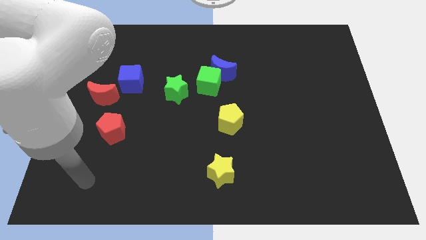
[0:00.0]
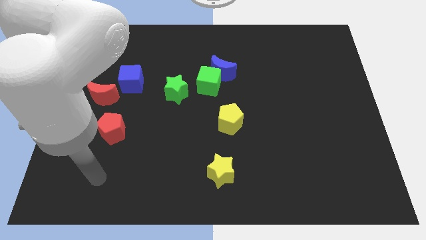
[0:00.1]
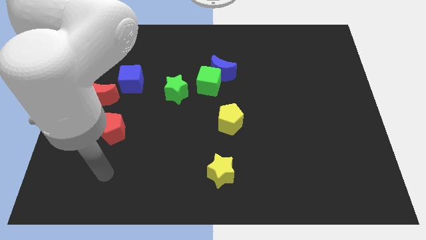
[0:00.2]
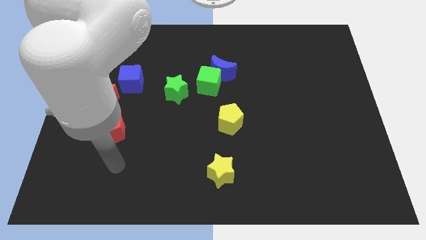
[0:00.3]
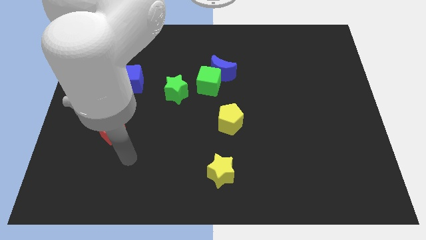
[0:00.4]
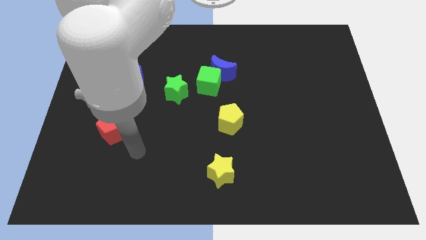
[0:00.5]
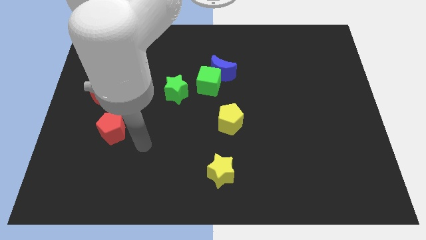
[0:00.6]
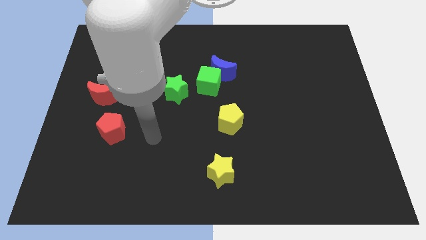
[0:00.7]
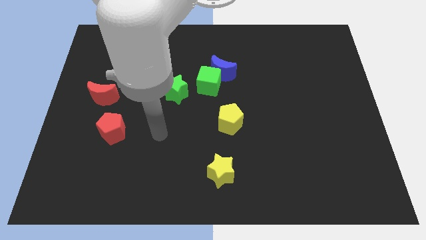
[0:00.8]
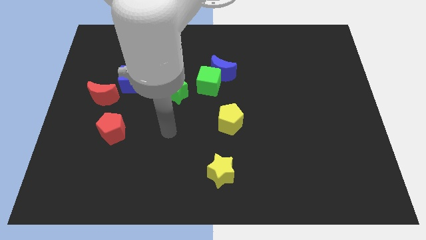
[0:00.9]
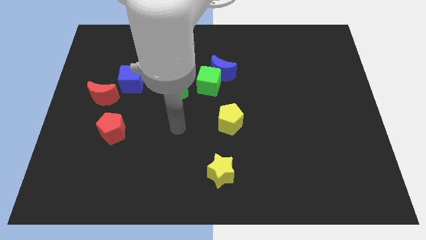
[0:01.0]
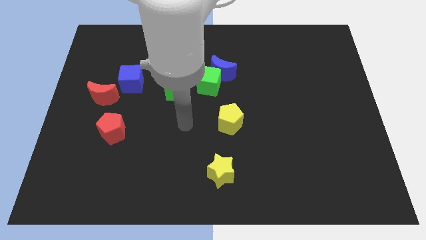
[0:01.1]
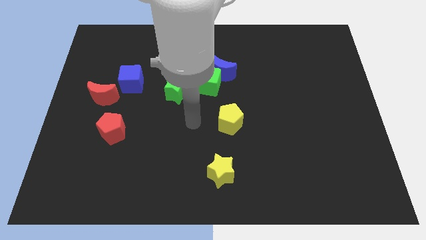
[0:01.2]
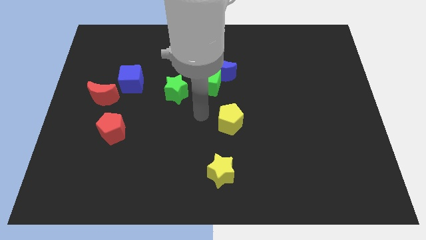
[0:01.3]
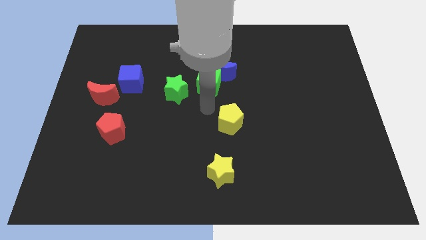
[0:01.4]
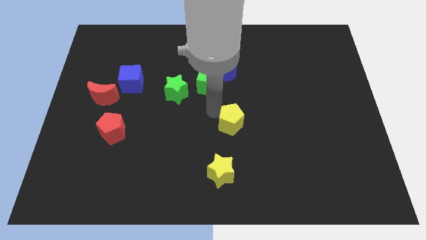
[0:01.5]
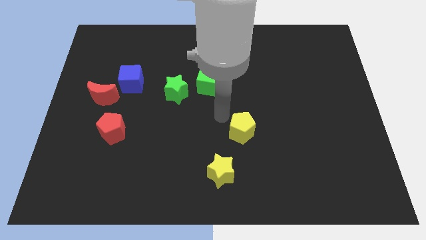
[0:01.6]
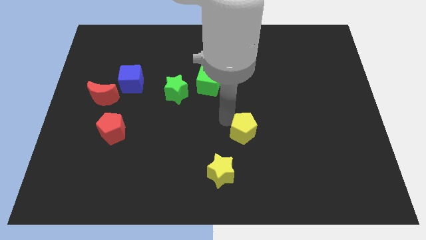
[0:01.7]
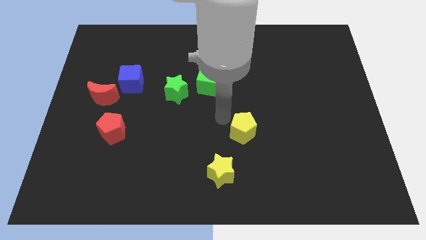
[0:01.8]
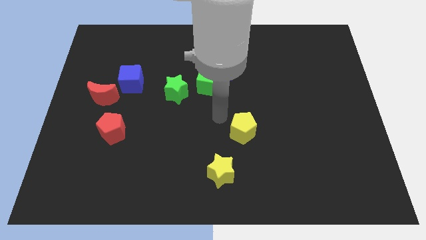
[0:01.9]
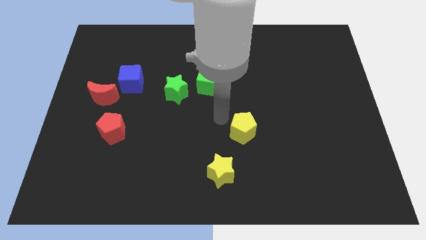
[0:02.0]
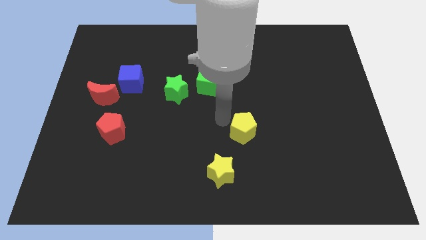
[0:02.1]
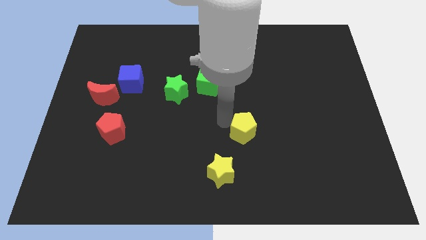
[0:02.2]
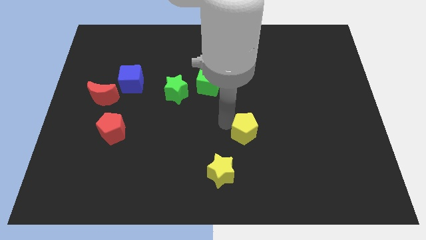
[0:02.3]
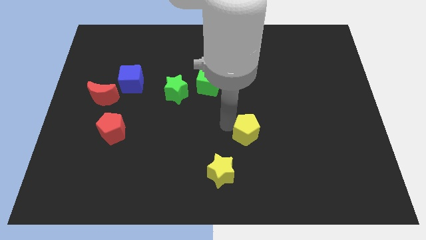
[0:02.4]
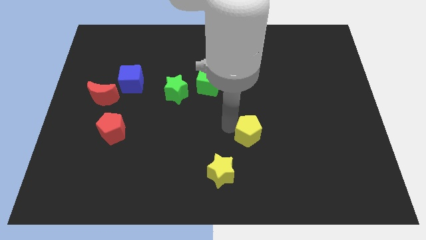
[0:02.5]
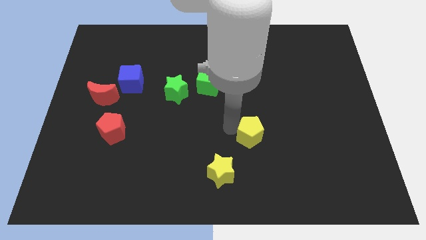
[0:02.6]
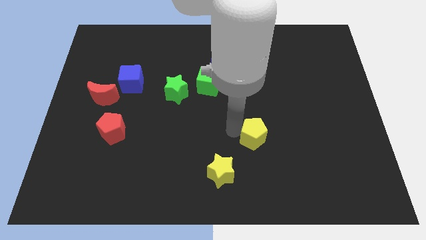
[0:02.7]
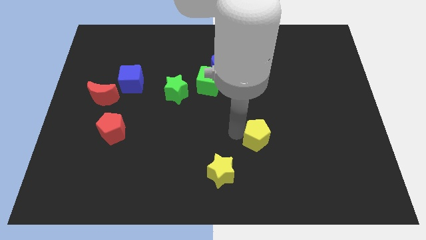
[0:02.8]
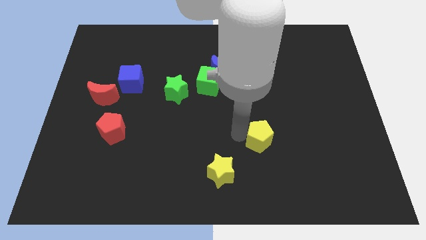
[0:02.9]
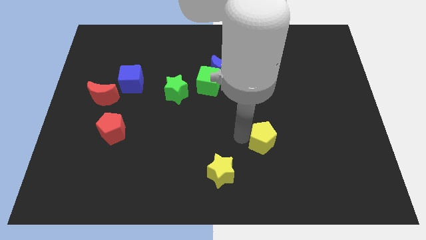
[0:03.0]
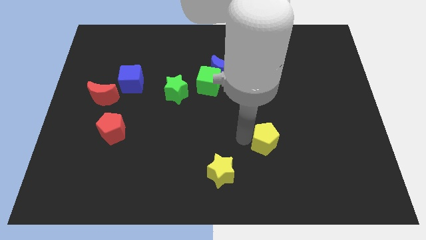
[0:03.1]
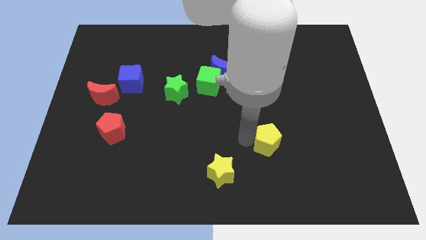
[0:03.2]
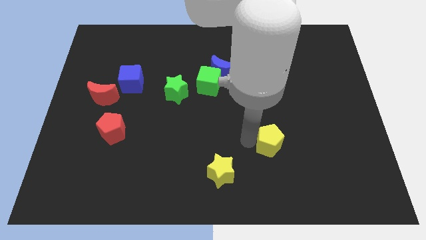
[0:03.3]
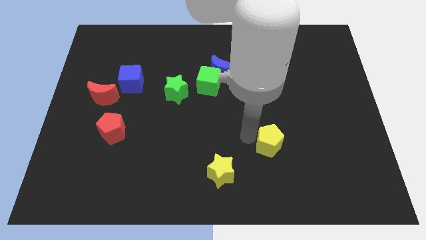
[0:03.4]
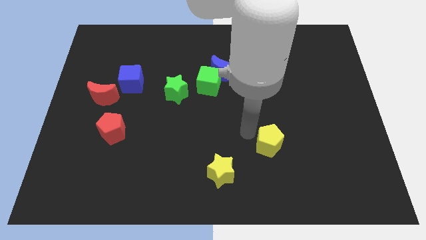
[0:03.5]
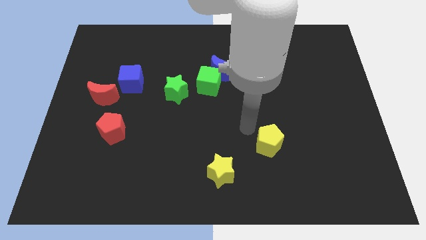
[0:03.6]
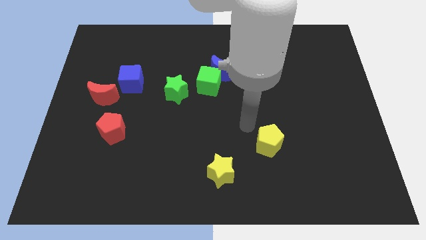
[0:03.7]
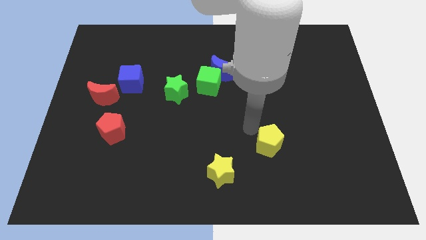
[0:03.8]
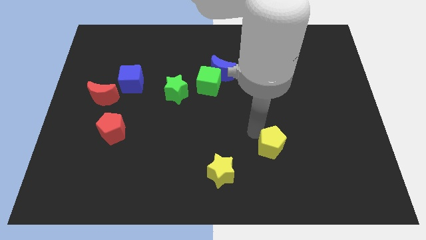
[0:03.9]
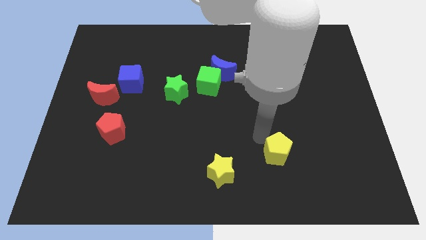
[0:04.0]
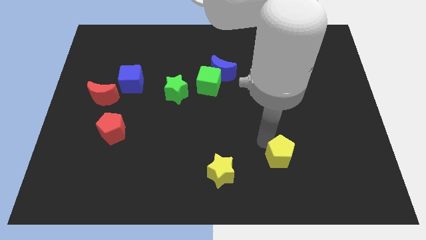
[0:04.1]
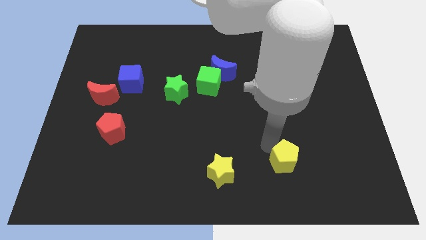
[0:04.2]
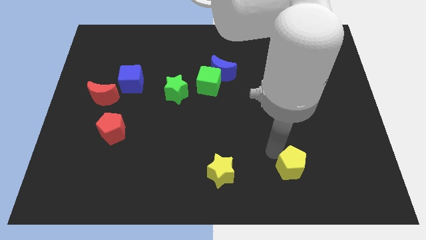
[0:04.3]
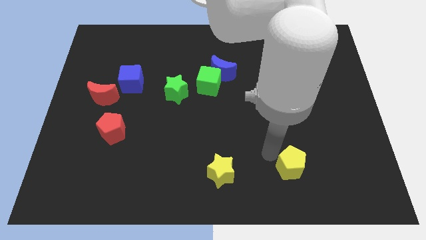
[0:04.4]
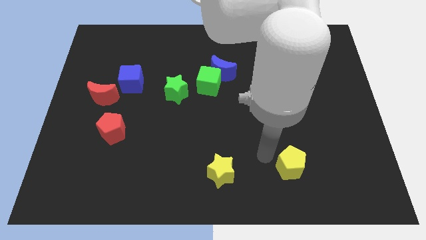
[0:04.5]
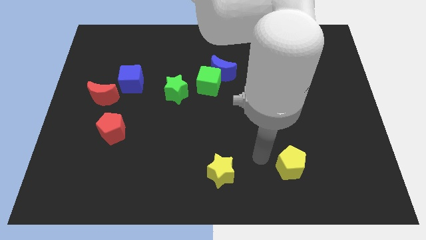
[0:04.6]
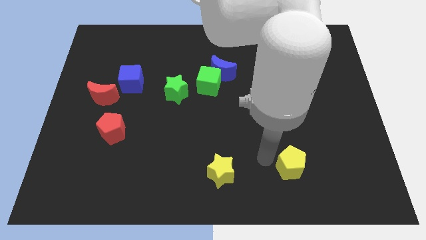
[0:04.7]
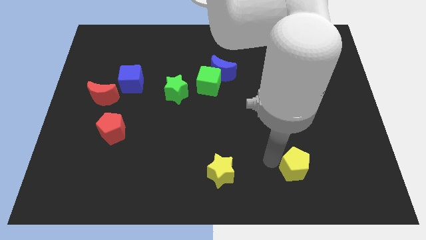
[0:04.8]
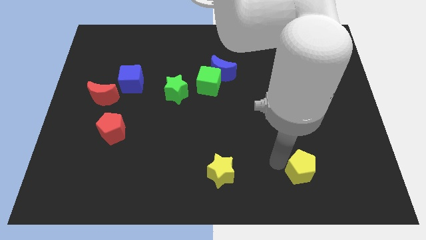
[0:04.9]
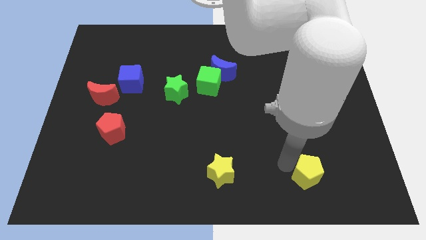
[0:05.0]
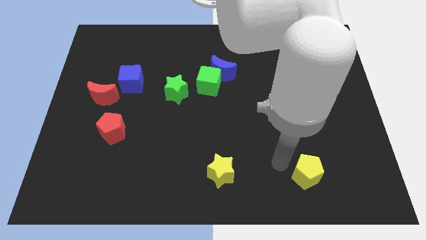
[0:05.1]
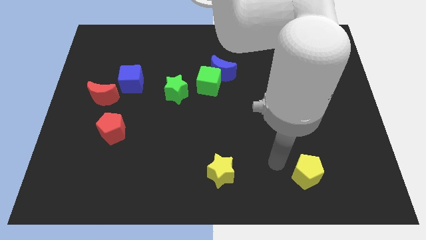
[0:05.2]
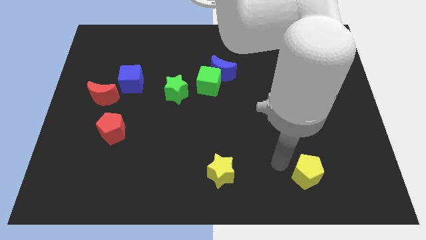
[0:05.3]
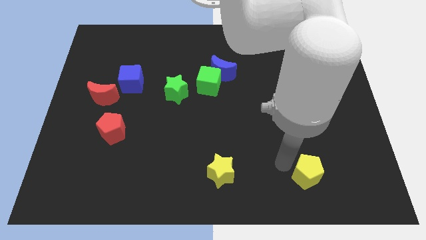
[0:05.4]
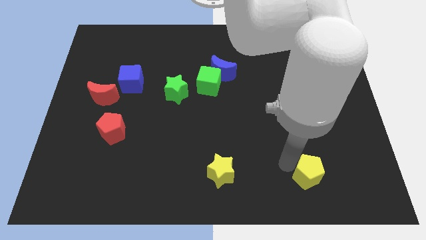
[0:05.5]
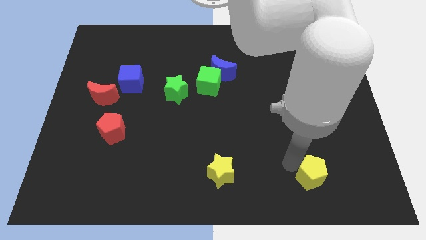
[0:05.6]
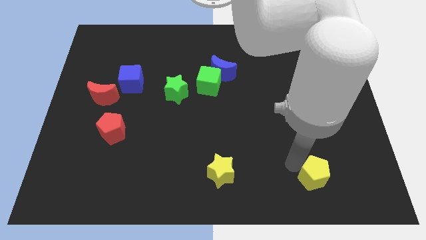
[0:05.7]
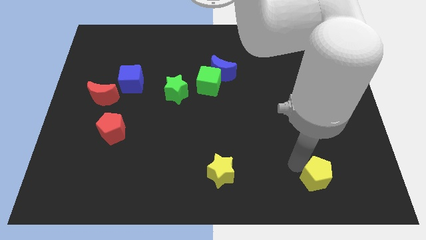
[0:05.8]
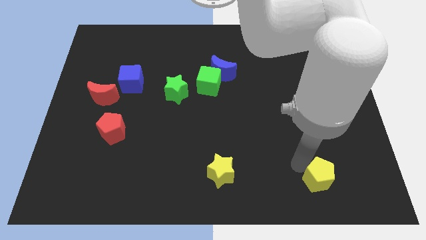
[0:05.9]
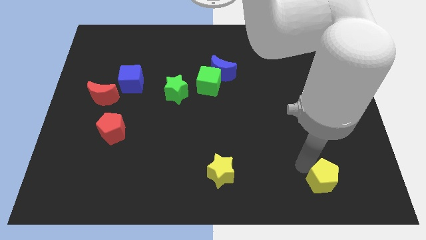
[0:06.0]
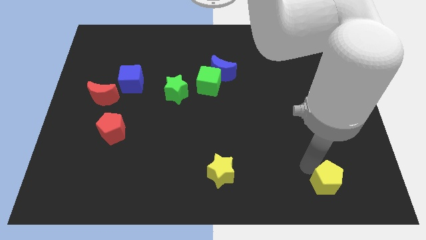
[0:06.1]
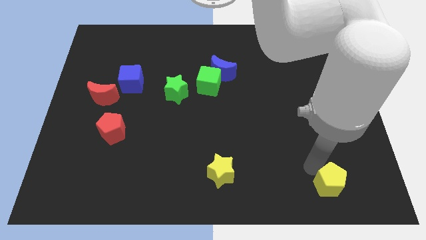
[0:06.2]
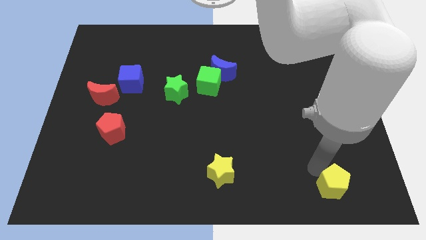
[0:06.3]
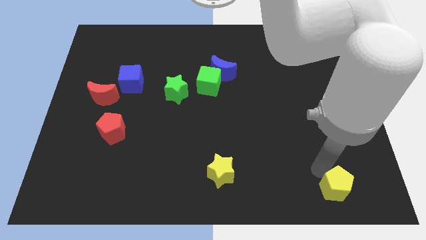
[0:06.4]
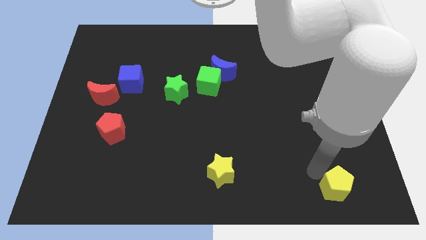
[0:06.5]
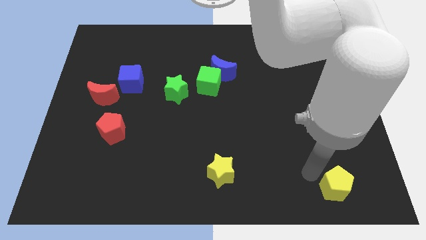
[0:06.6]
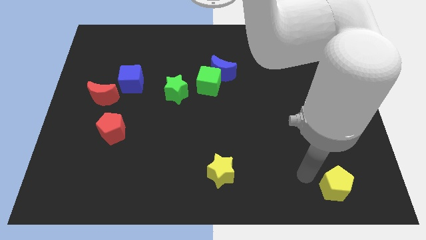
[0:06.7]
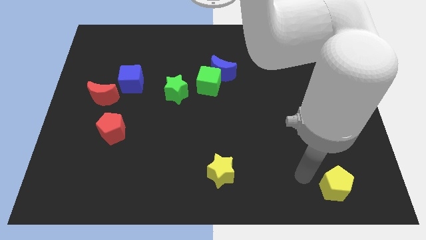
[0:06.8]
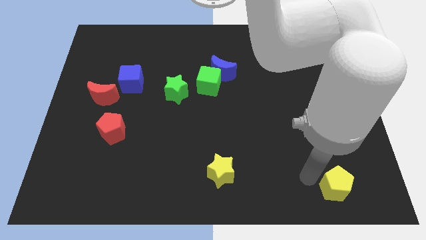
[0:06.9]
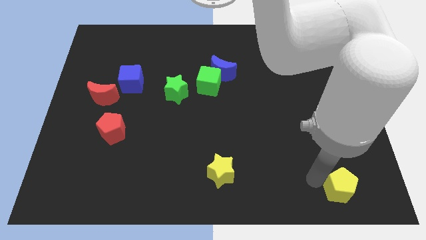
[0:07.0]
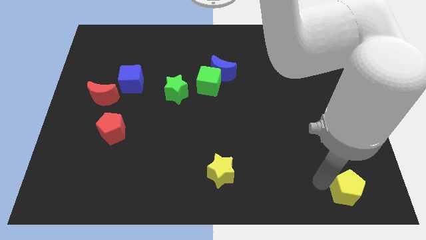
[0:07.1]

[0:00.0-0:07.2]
slide the yellow pentagon to the lower right corner
